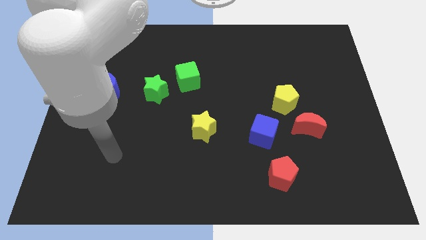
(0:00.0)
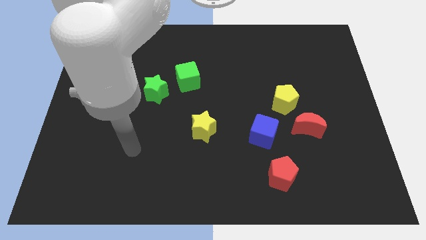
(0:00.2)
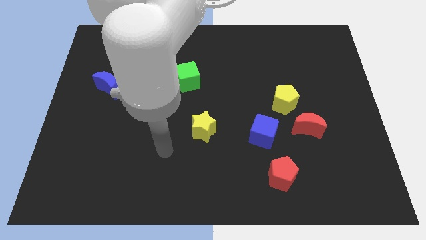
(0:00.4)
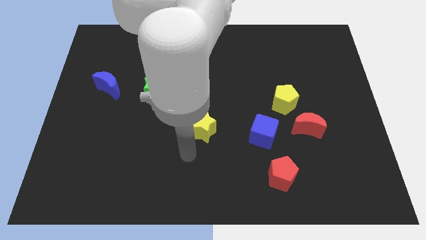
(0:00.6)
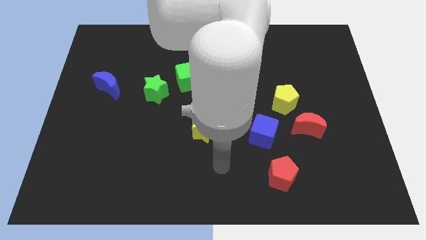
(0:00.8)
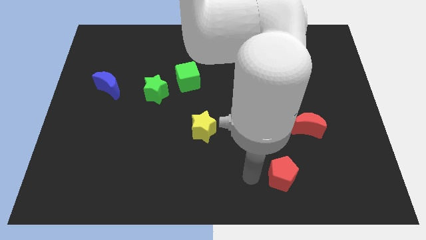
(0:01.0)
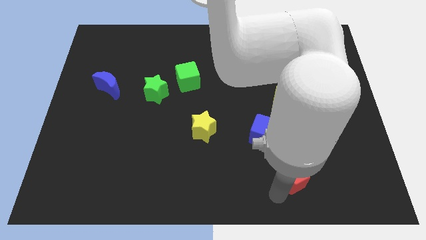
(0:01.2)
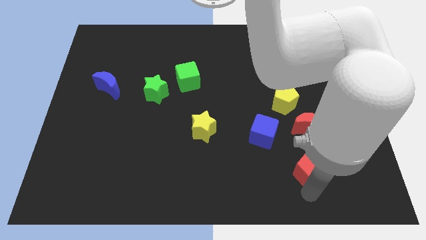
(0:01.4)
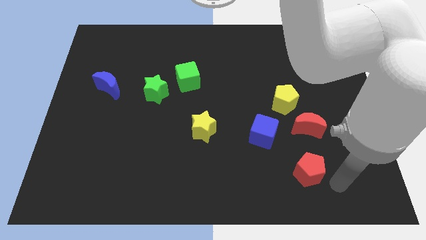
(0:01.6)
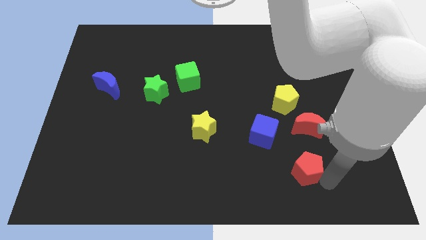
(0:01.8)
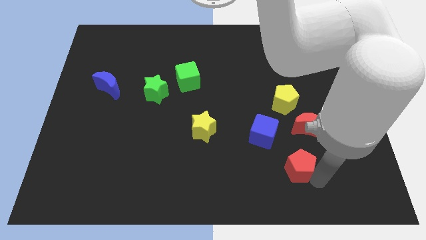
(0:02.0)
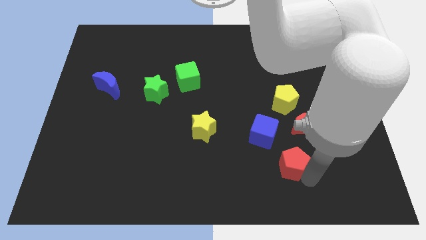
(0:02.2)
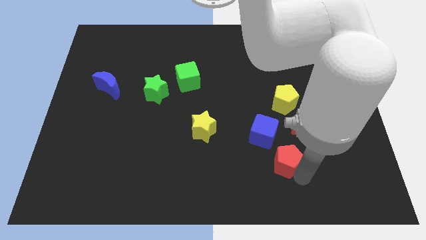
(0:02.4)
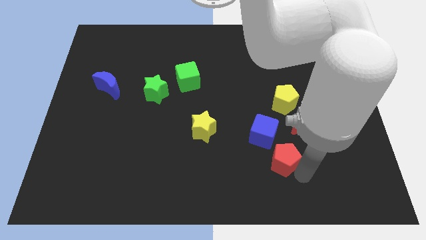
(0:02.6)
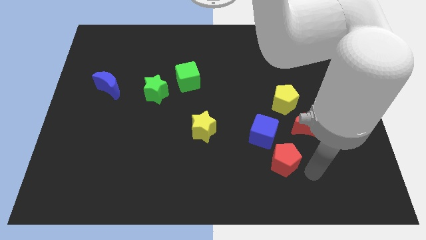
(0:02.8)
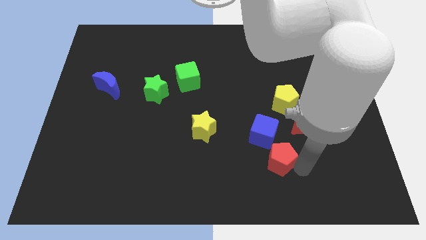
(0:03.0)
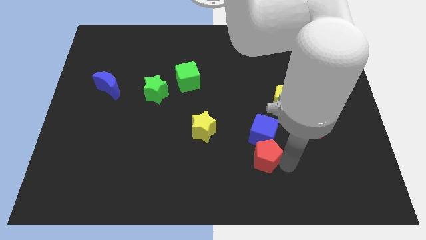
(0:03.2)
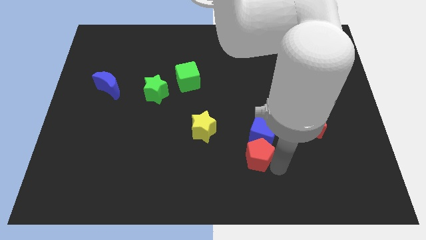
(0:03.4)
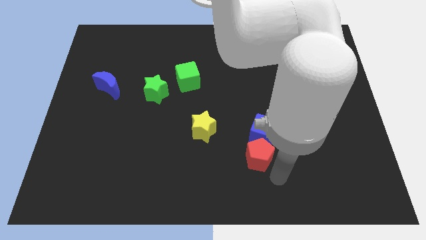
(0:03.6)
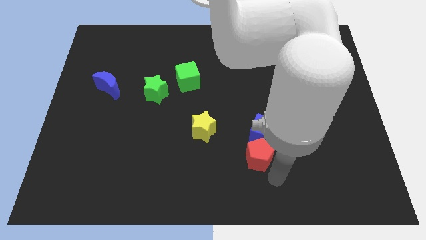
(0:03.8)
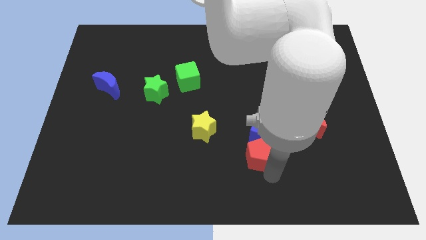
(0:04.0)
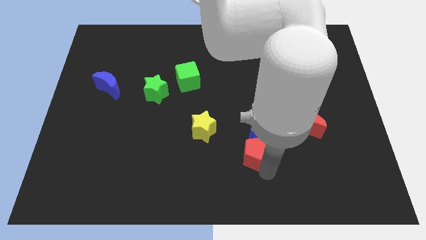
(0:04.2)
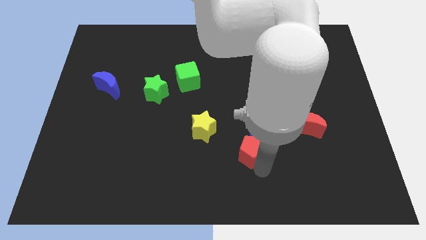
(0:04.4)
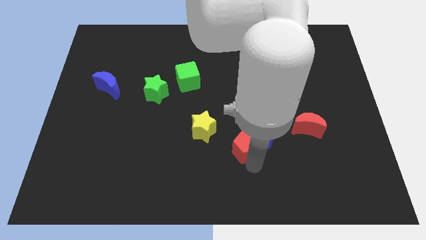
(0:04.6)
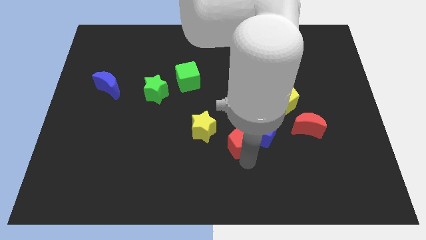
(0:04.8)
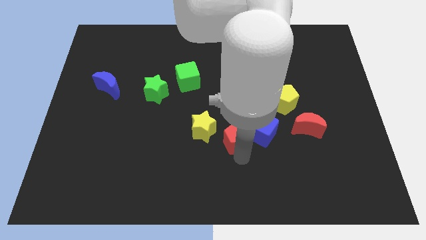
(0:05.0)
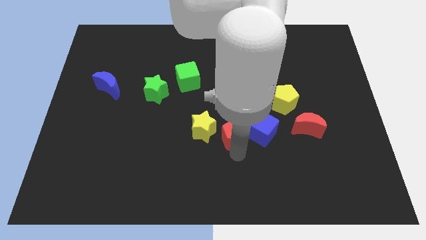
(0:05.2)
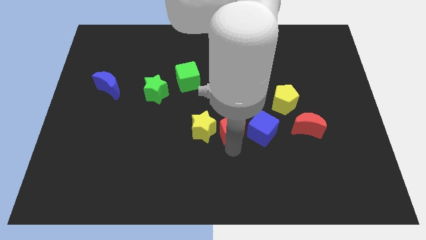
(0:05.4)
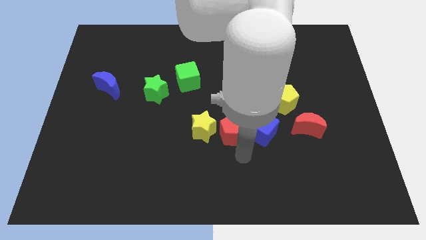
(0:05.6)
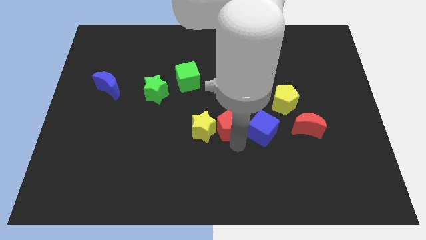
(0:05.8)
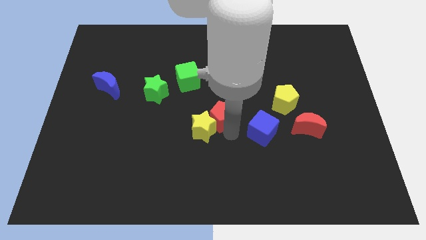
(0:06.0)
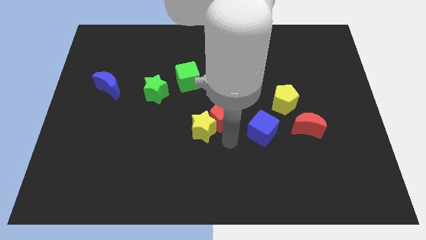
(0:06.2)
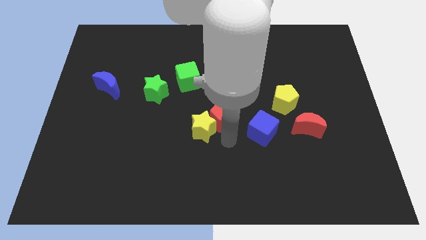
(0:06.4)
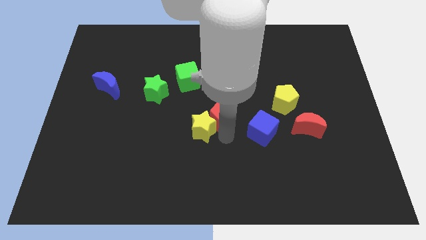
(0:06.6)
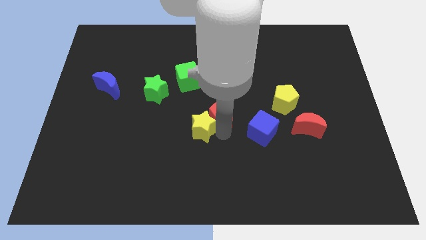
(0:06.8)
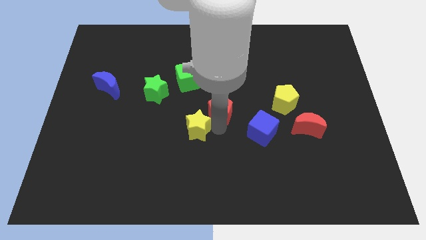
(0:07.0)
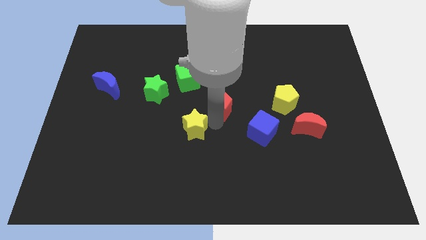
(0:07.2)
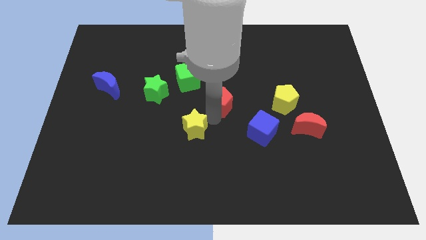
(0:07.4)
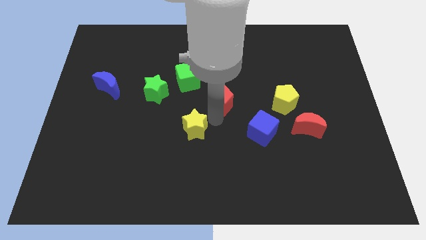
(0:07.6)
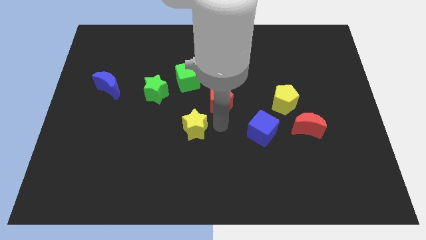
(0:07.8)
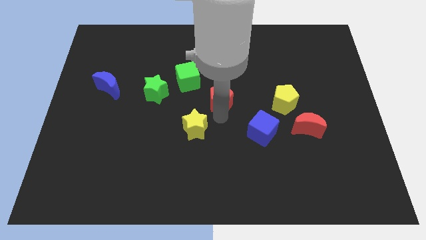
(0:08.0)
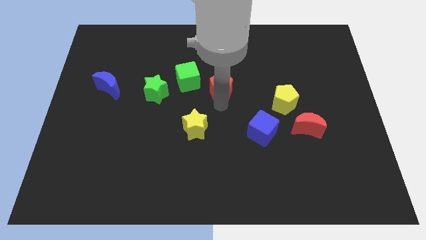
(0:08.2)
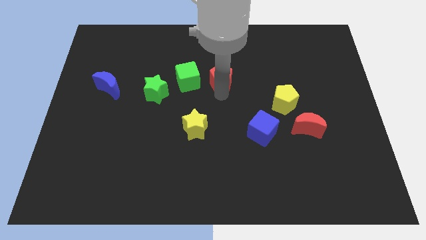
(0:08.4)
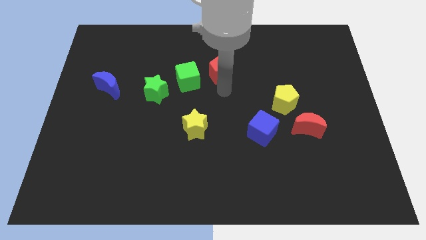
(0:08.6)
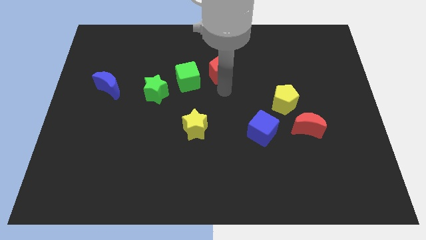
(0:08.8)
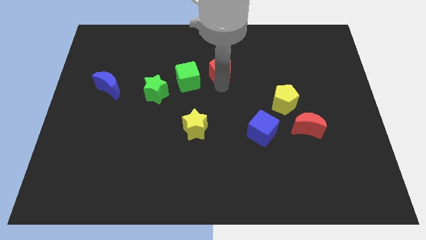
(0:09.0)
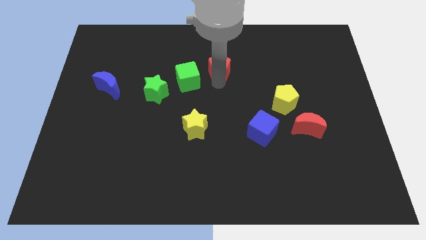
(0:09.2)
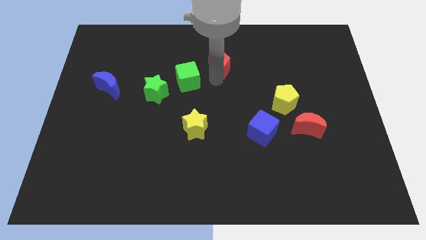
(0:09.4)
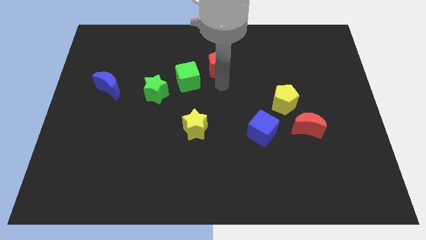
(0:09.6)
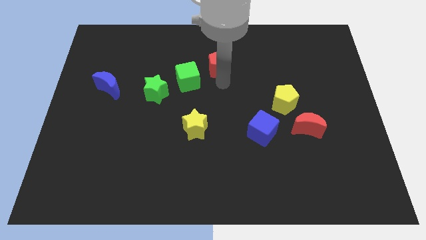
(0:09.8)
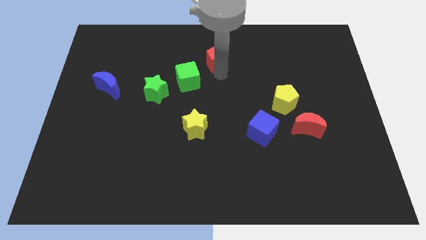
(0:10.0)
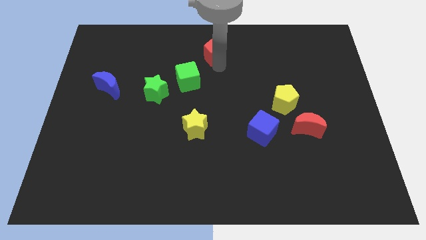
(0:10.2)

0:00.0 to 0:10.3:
push the red pentagon to the top

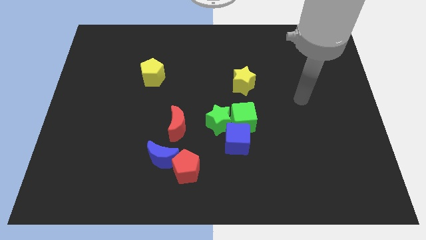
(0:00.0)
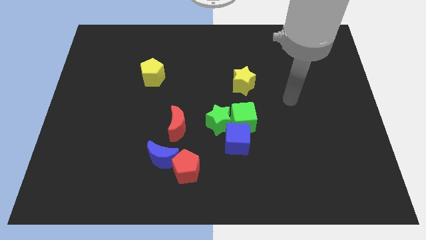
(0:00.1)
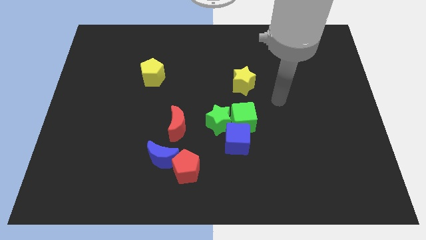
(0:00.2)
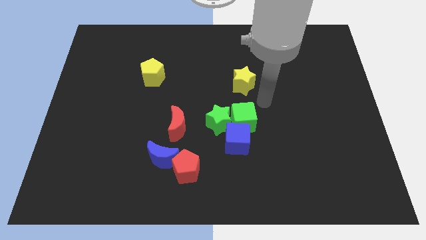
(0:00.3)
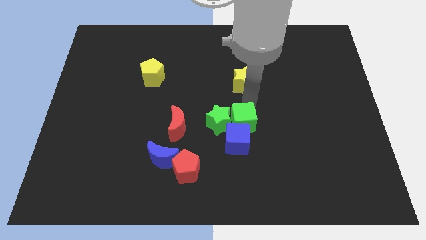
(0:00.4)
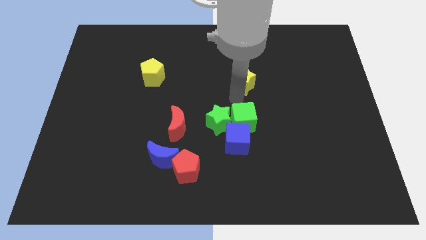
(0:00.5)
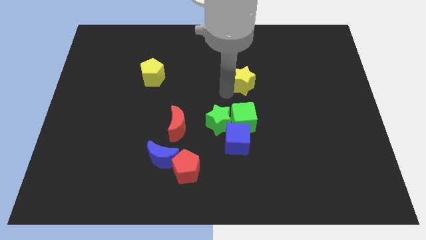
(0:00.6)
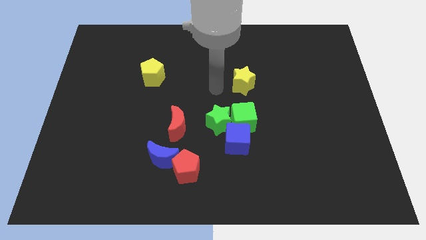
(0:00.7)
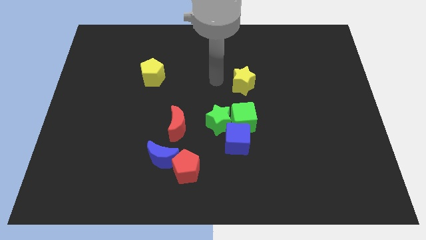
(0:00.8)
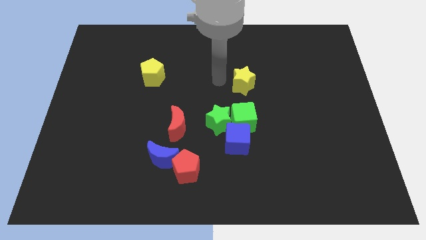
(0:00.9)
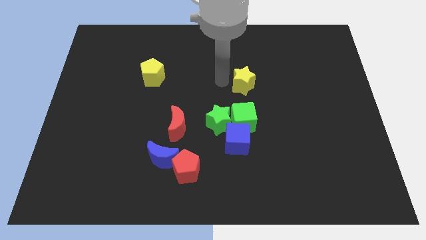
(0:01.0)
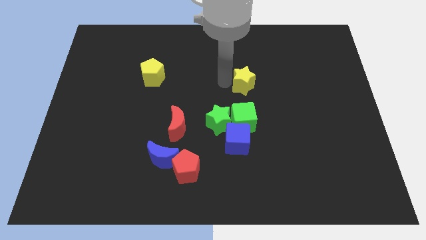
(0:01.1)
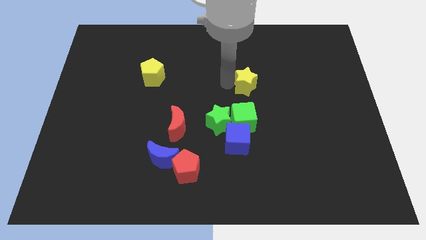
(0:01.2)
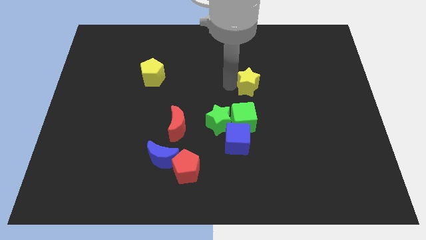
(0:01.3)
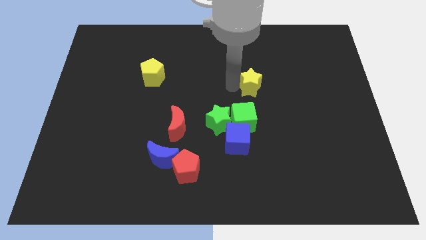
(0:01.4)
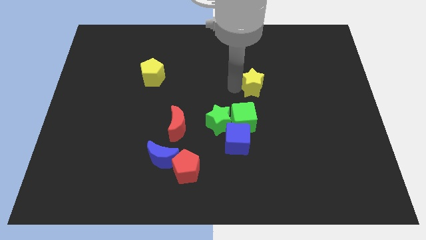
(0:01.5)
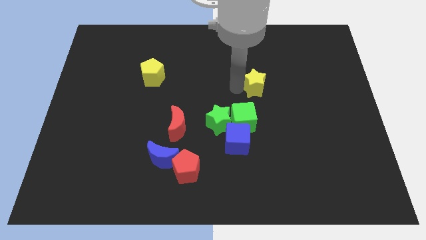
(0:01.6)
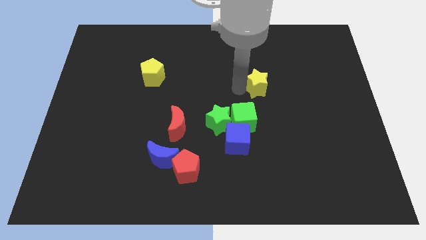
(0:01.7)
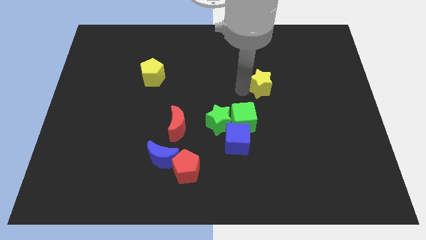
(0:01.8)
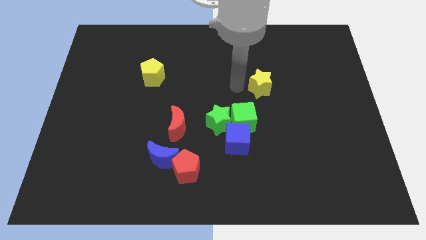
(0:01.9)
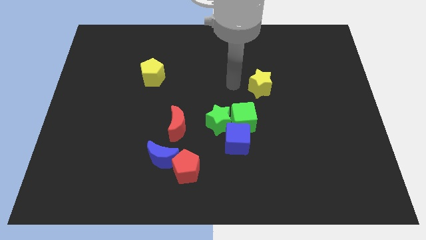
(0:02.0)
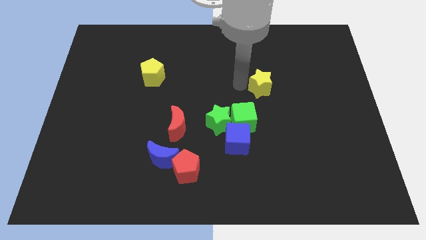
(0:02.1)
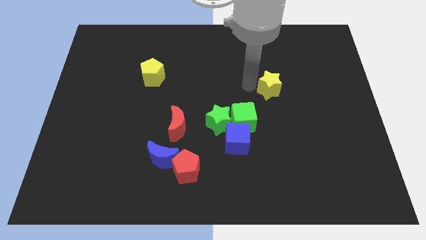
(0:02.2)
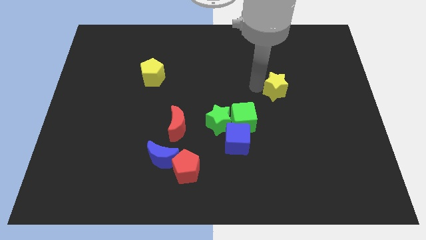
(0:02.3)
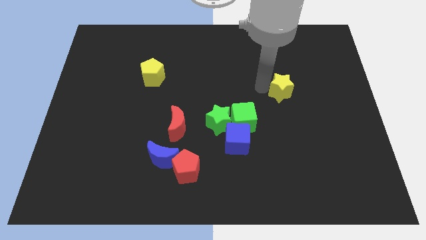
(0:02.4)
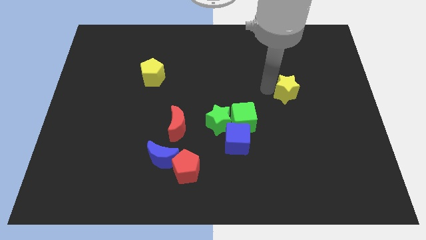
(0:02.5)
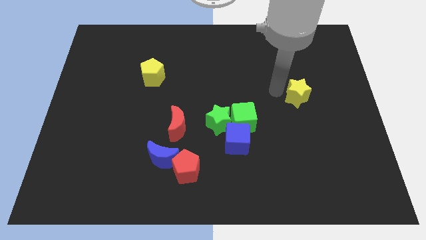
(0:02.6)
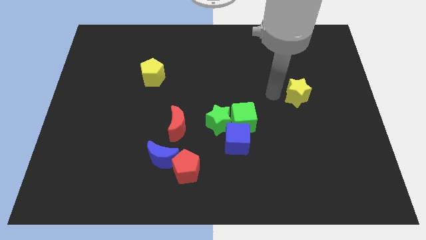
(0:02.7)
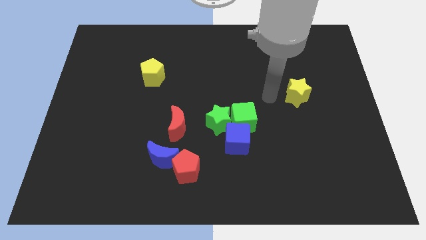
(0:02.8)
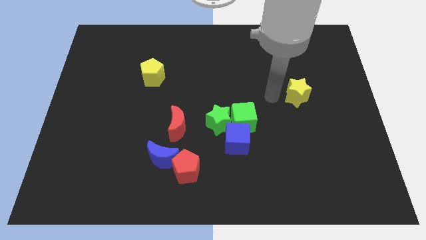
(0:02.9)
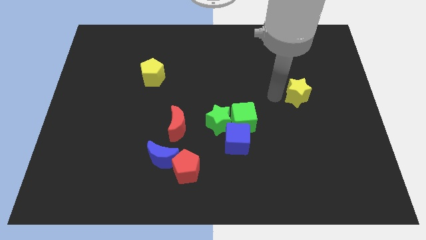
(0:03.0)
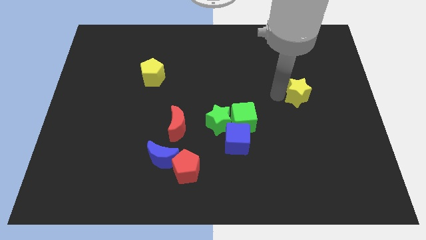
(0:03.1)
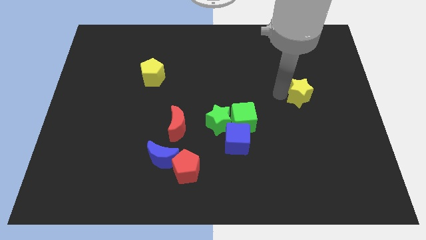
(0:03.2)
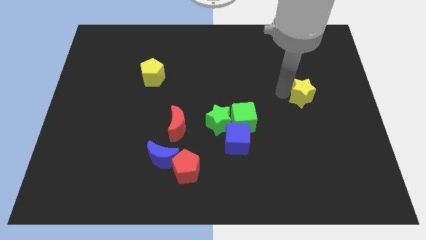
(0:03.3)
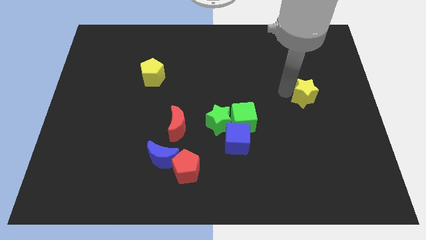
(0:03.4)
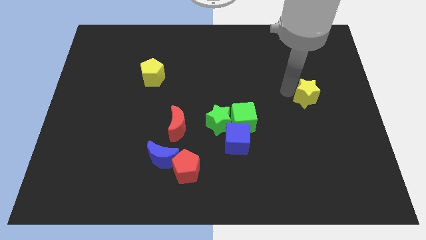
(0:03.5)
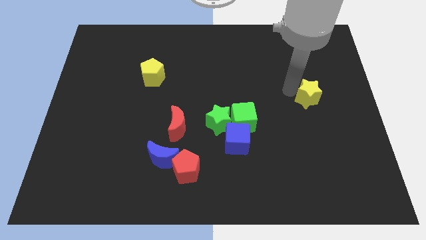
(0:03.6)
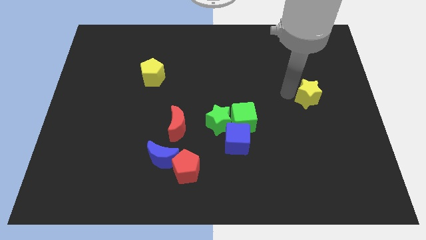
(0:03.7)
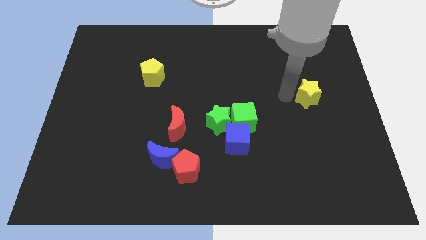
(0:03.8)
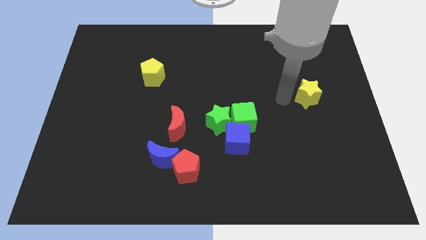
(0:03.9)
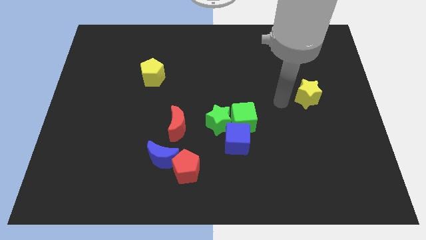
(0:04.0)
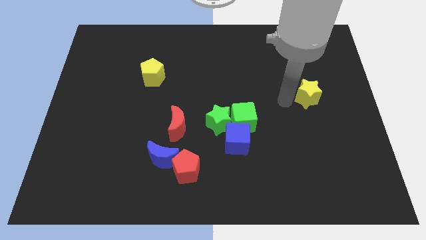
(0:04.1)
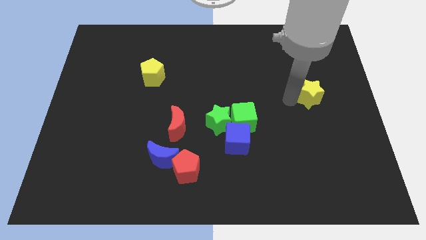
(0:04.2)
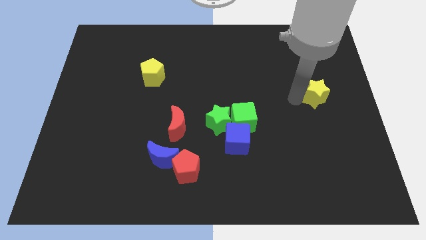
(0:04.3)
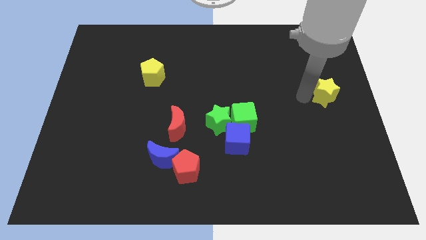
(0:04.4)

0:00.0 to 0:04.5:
move the yellow star to the right side of the board
